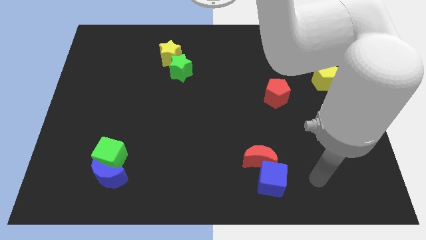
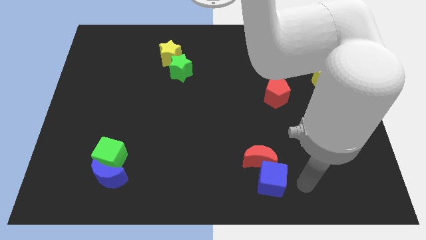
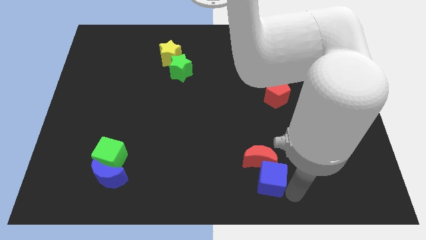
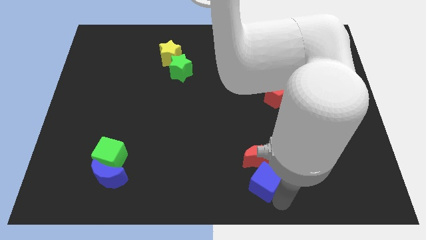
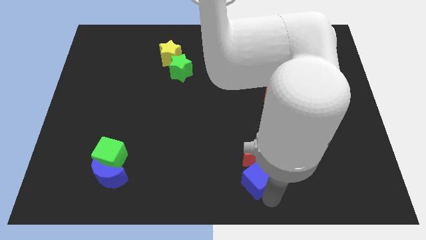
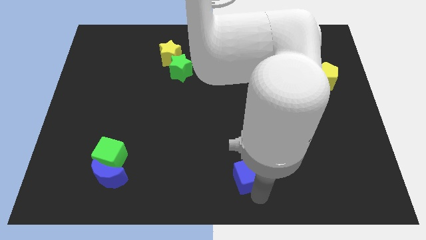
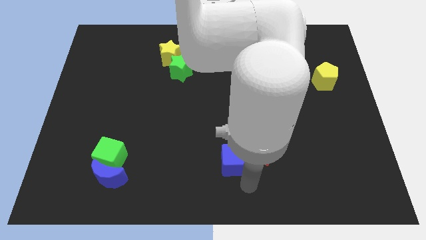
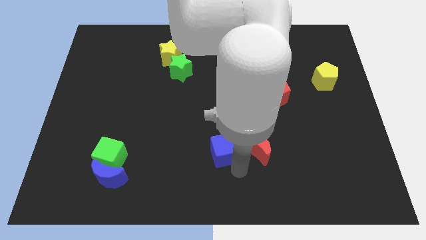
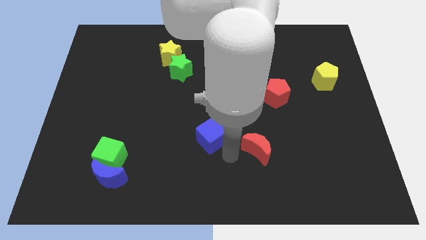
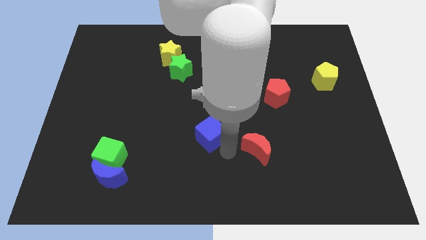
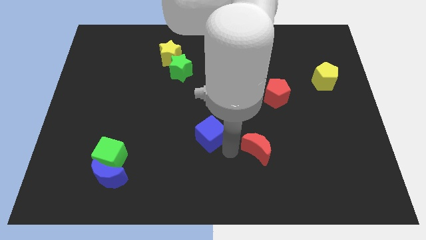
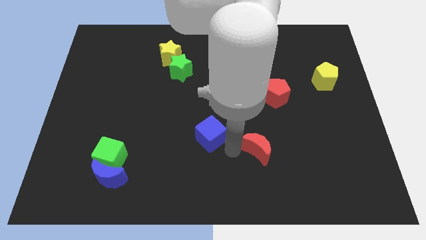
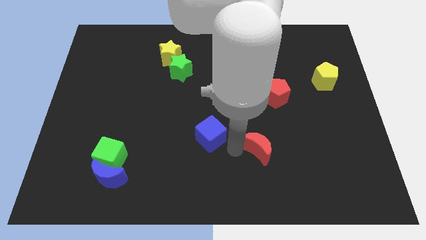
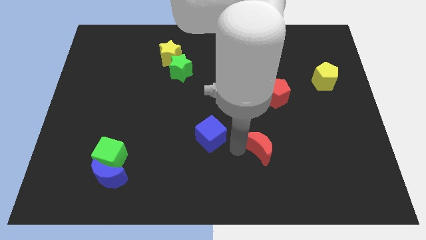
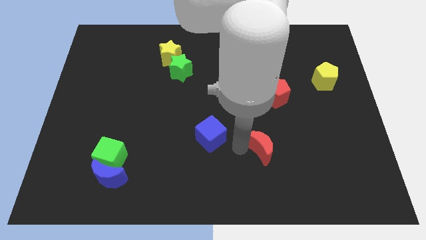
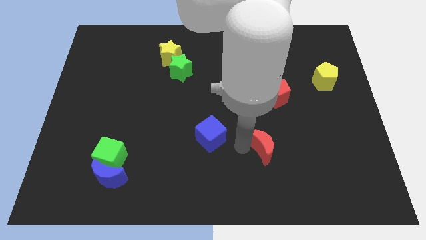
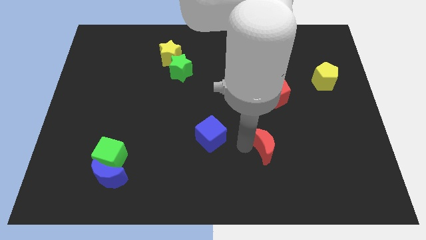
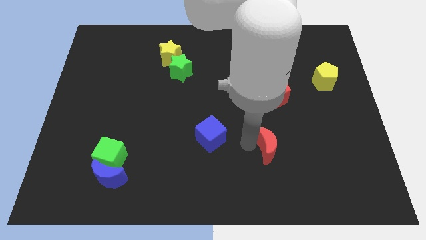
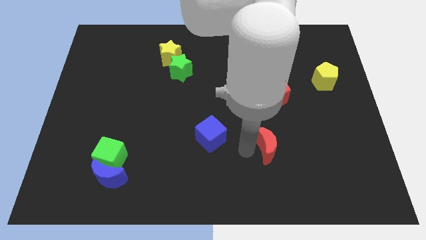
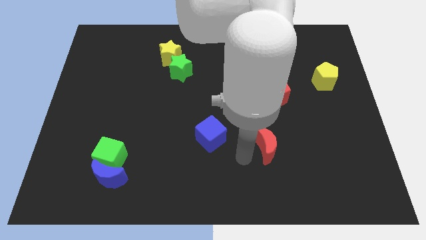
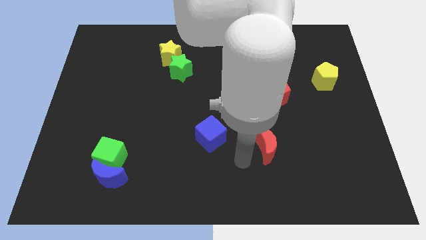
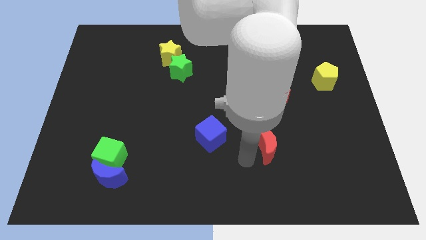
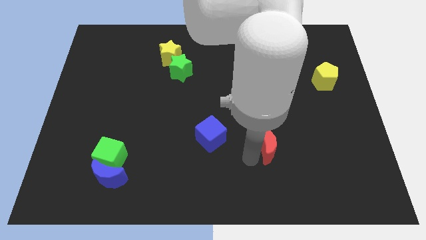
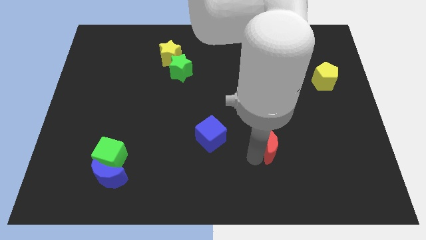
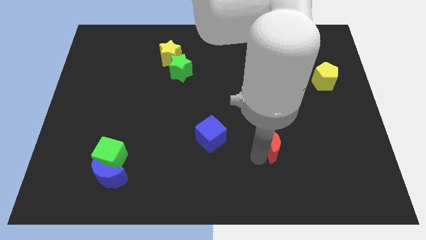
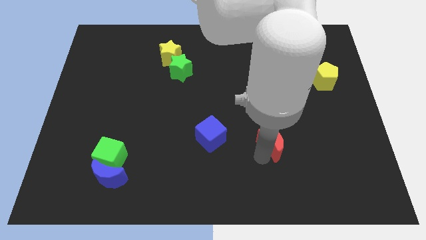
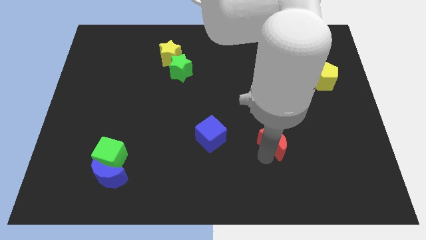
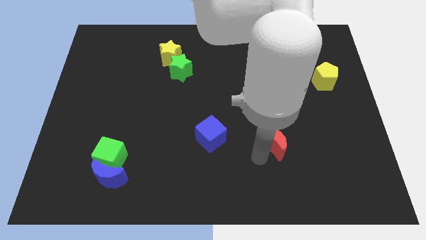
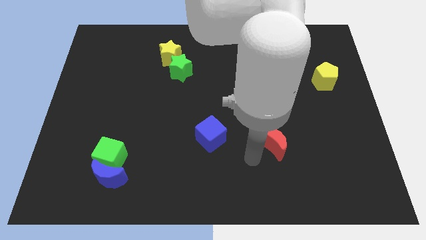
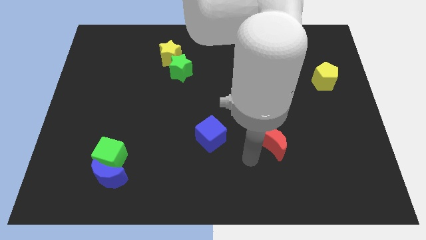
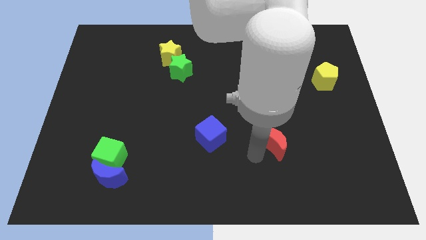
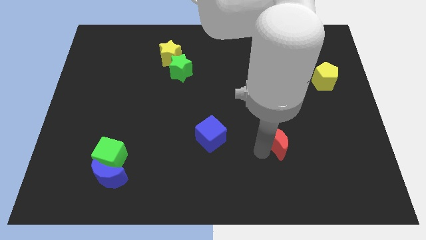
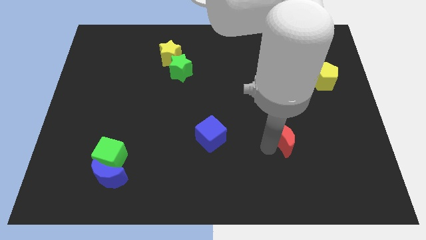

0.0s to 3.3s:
move the red moon slightly up and to the right diagonally

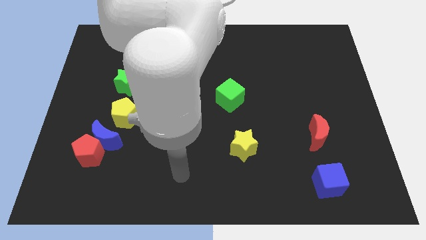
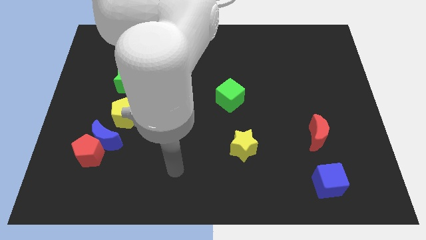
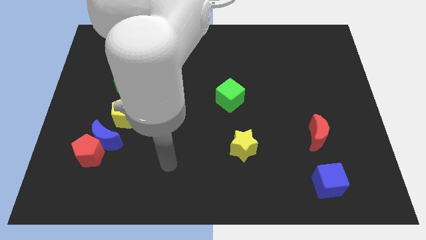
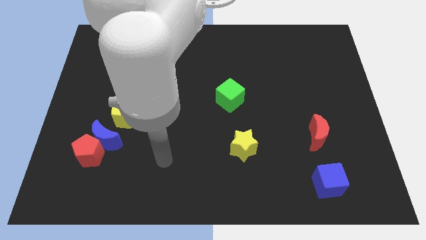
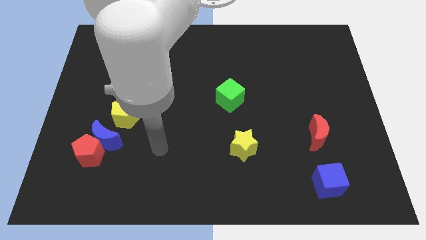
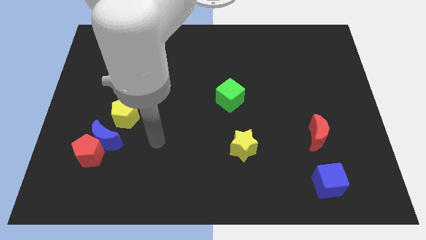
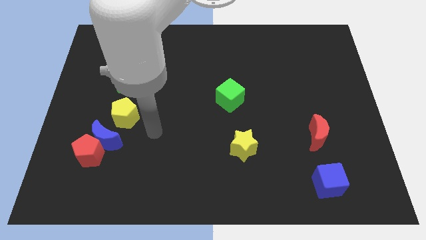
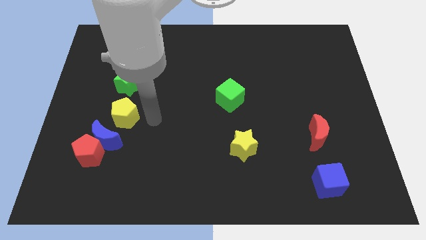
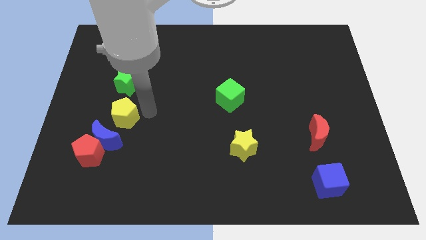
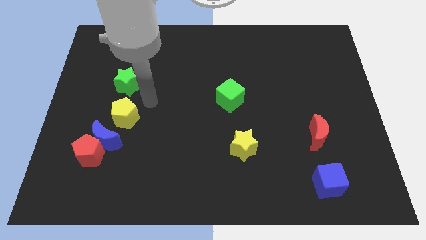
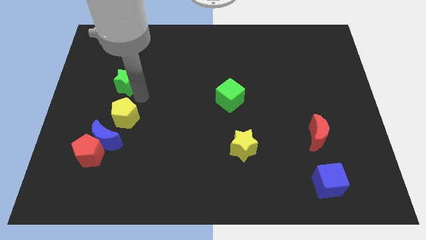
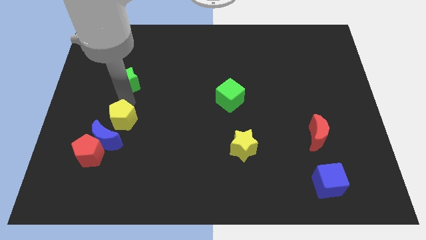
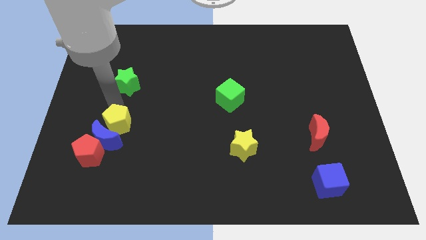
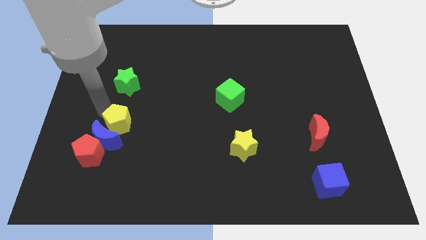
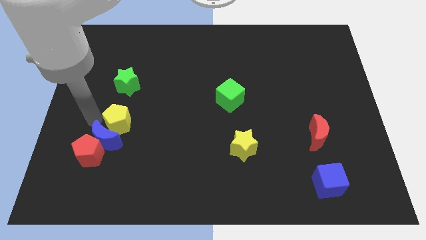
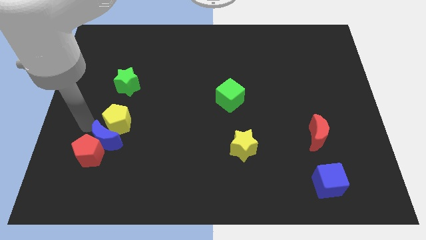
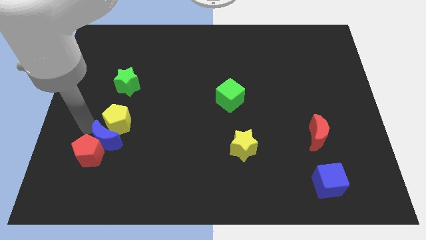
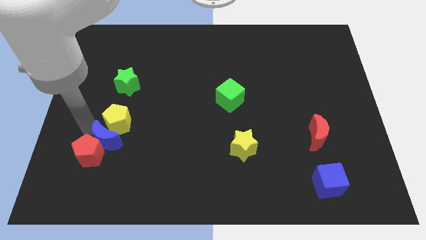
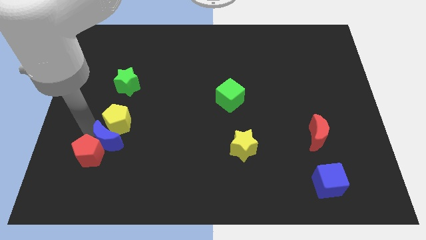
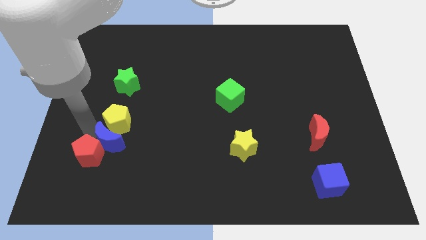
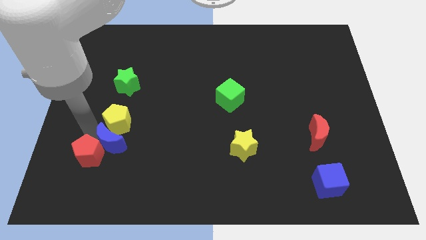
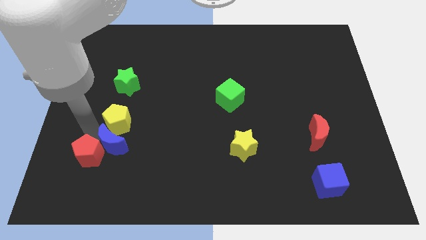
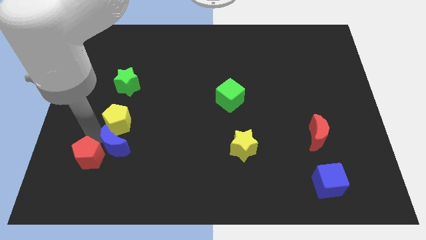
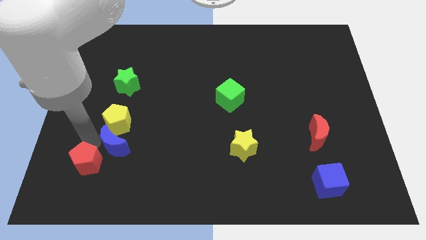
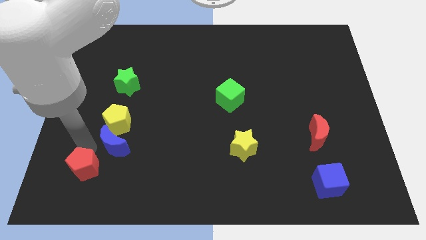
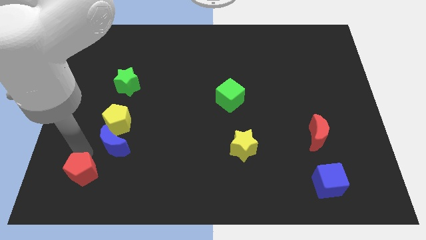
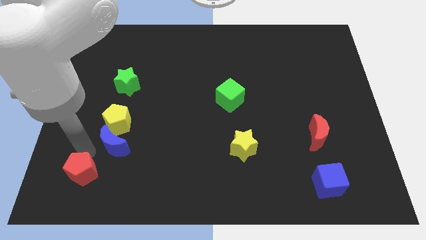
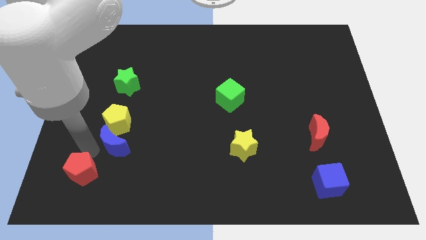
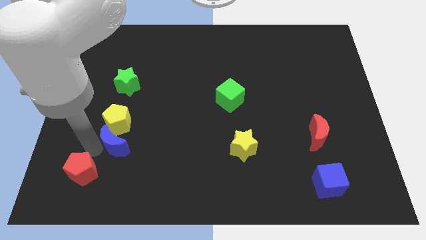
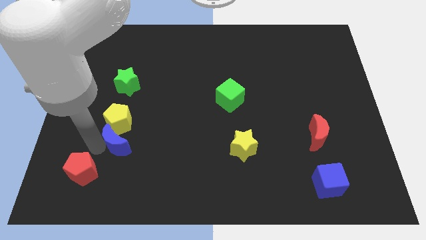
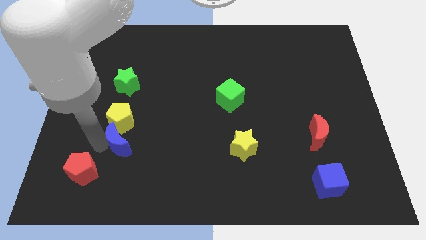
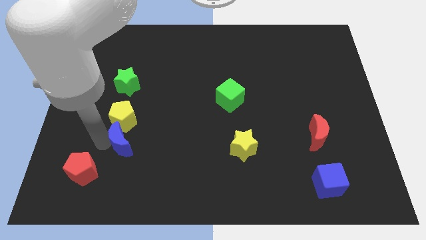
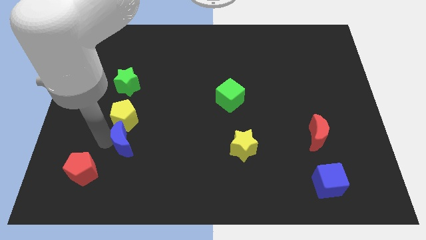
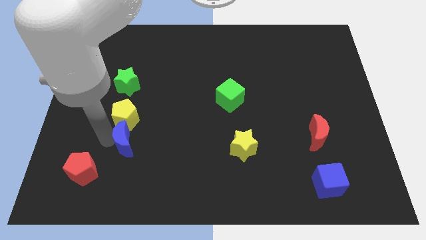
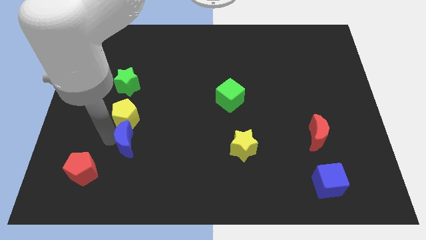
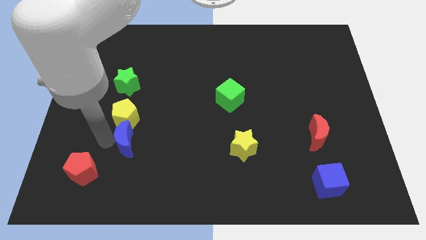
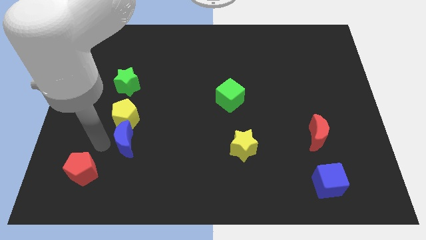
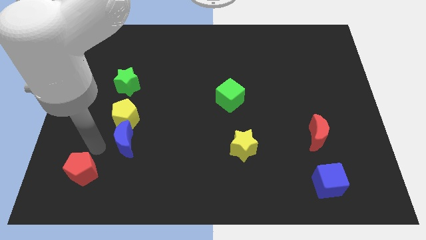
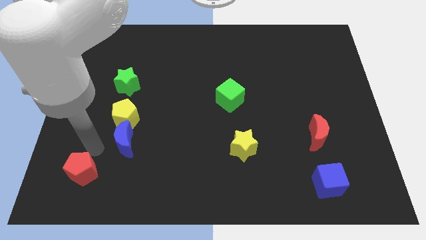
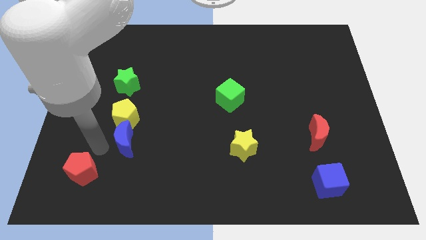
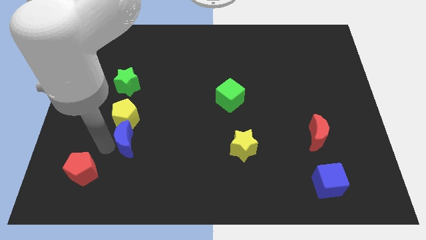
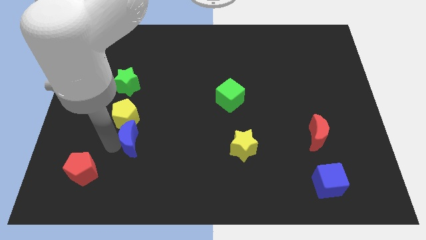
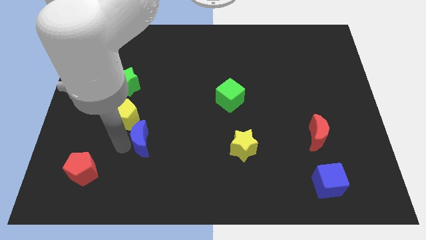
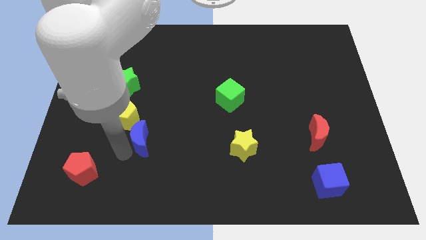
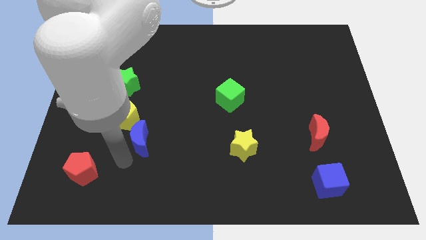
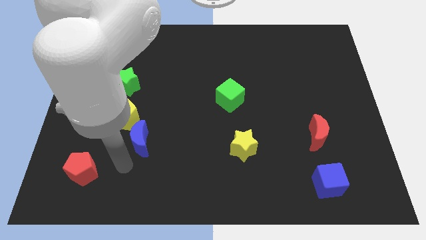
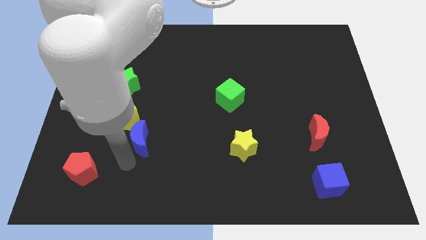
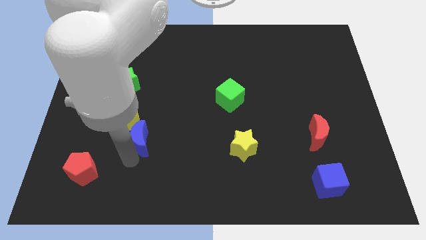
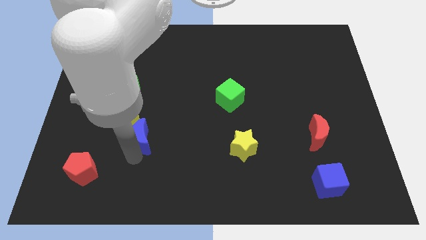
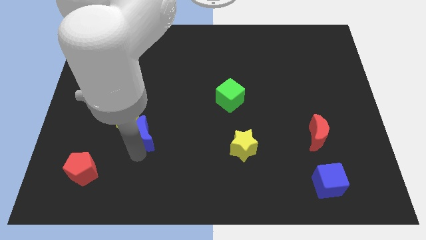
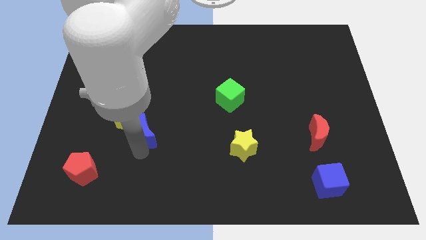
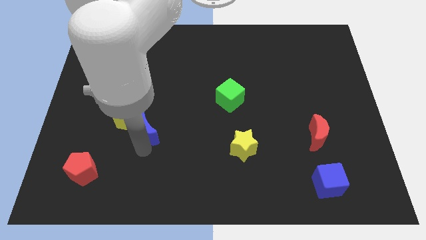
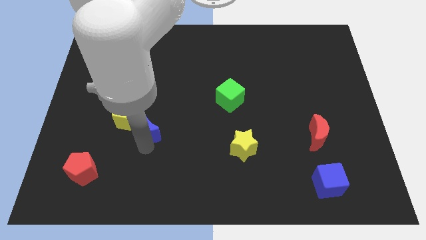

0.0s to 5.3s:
move the blue moon up and right a little bit
